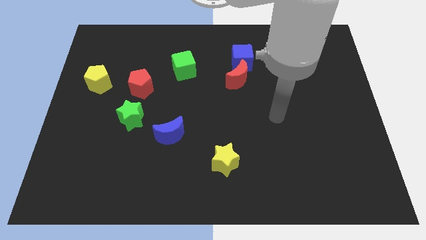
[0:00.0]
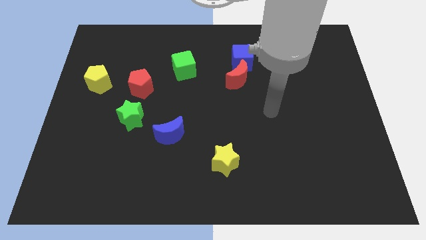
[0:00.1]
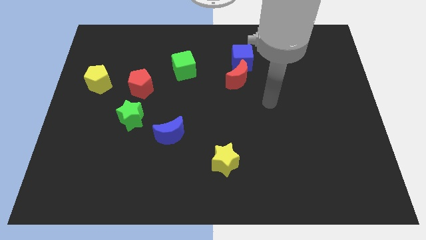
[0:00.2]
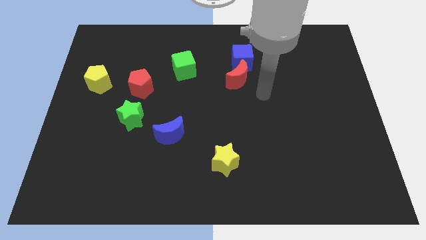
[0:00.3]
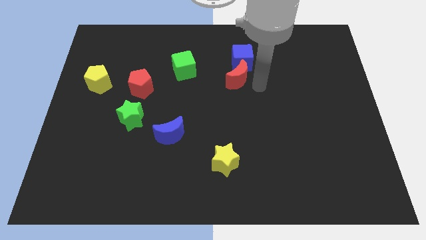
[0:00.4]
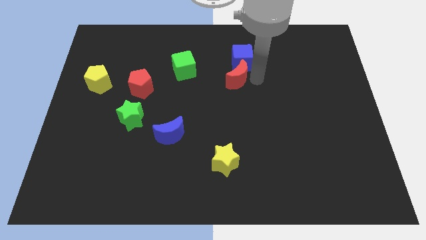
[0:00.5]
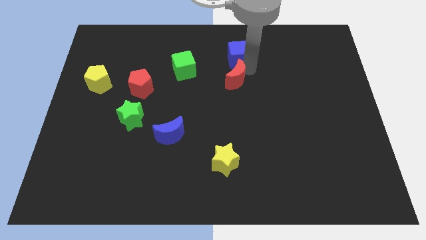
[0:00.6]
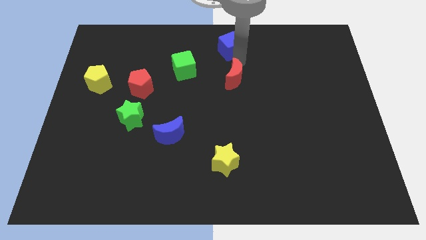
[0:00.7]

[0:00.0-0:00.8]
pull the red moon apart from the blue cube

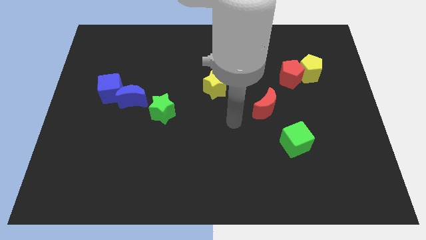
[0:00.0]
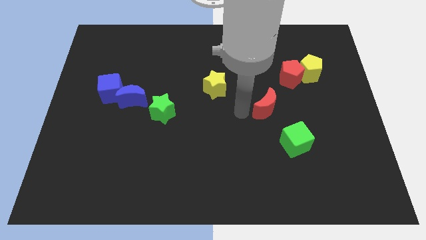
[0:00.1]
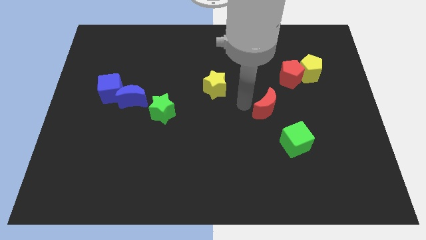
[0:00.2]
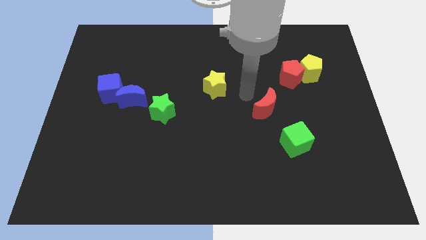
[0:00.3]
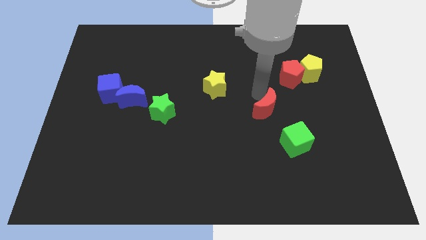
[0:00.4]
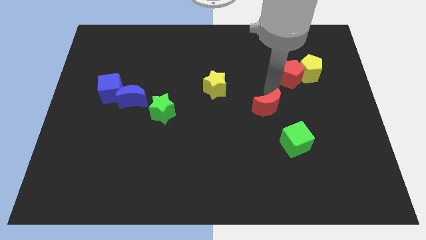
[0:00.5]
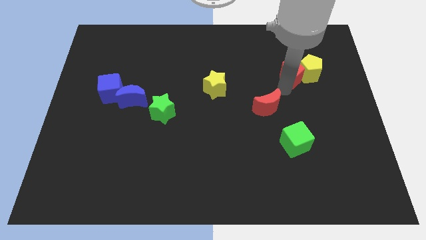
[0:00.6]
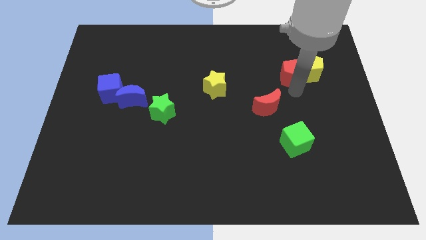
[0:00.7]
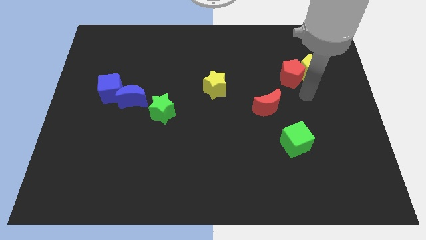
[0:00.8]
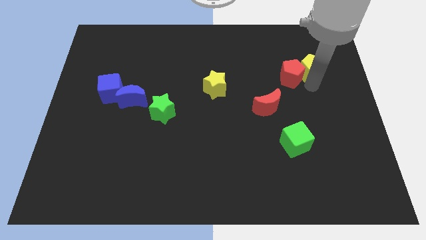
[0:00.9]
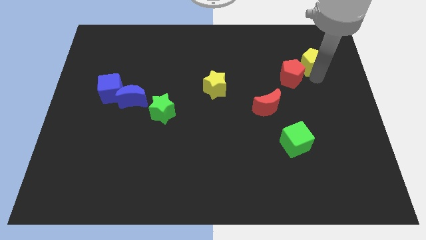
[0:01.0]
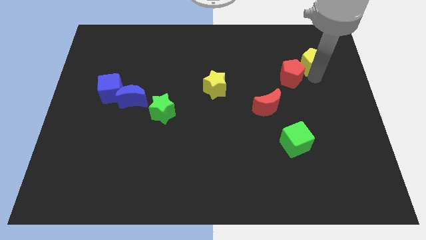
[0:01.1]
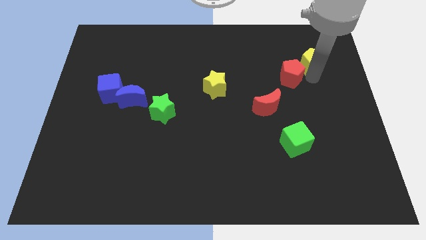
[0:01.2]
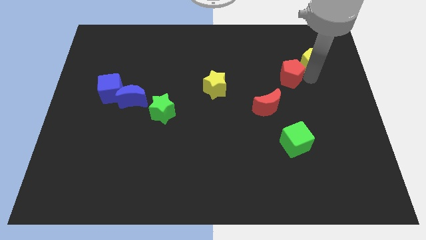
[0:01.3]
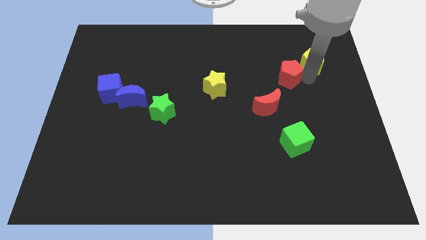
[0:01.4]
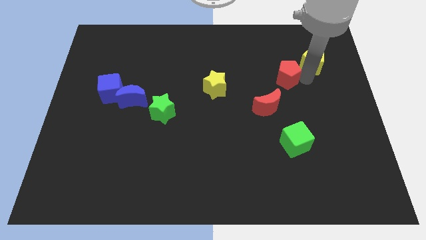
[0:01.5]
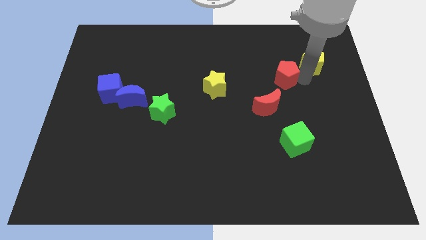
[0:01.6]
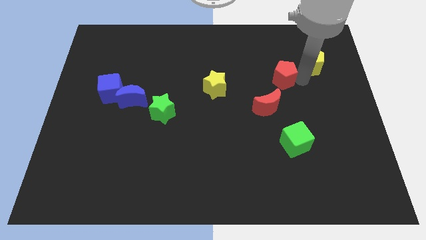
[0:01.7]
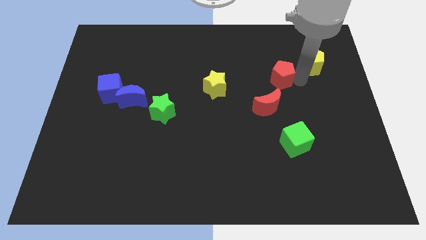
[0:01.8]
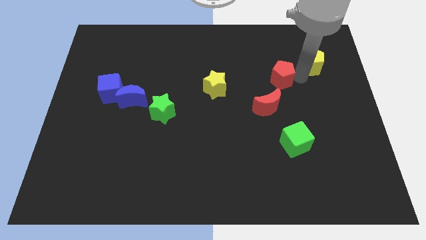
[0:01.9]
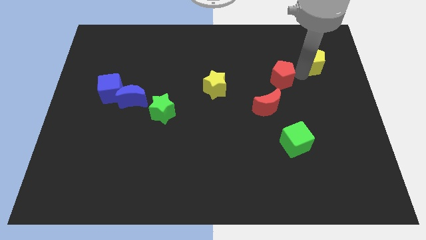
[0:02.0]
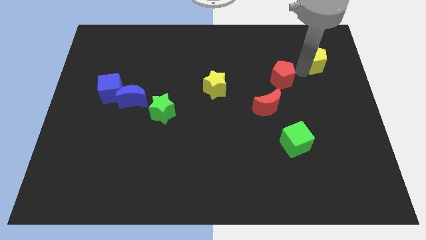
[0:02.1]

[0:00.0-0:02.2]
pull the red pentagon apart from the yellow pentagon

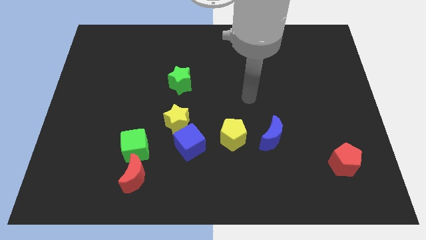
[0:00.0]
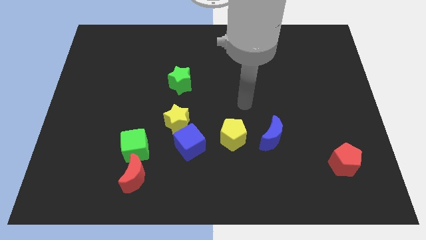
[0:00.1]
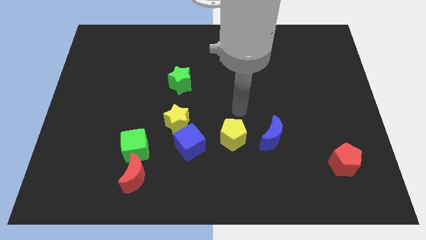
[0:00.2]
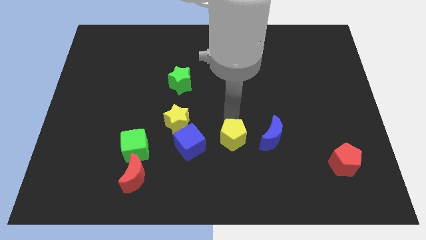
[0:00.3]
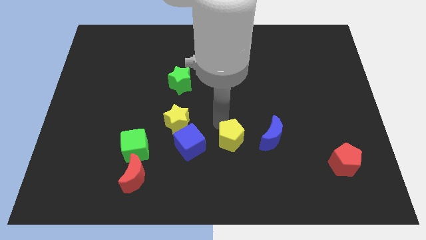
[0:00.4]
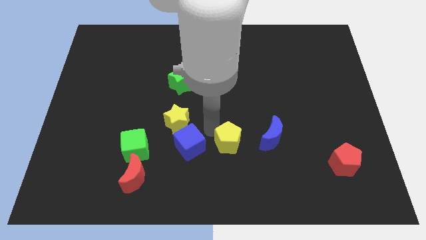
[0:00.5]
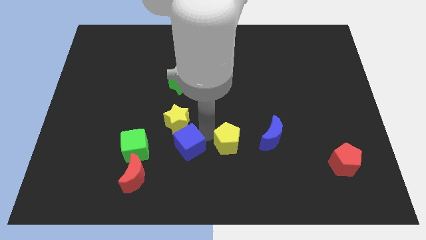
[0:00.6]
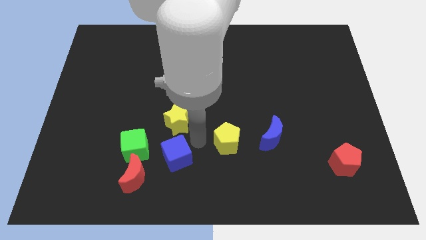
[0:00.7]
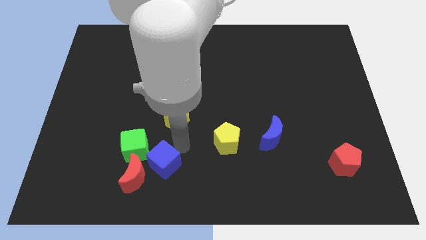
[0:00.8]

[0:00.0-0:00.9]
separate the yellow star from the blue cube

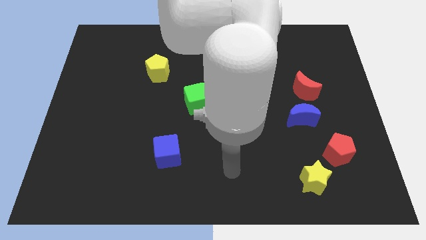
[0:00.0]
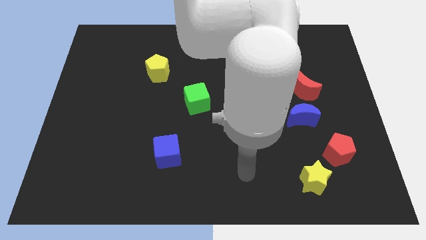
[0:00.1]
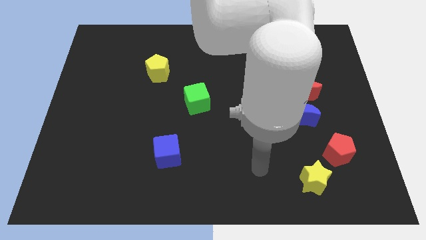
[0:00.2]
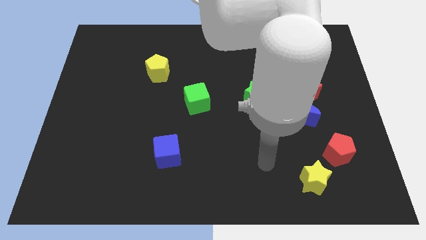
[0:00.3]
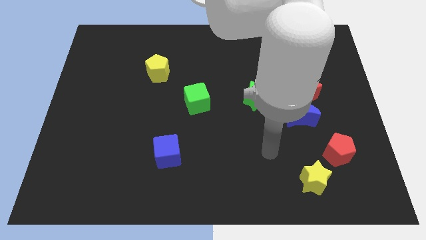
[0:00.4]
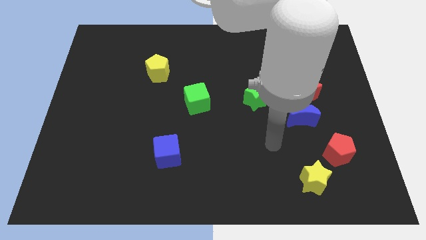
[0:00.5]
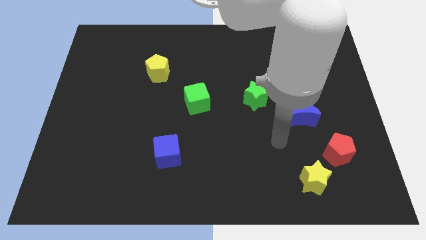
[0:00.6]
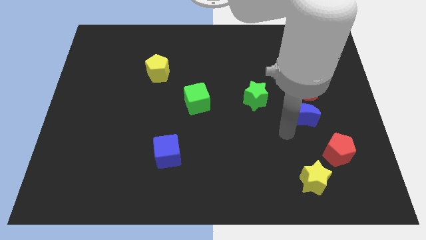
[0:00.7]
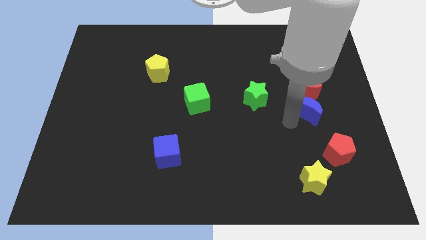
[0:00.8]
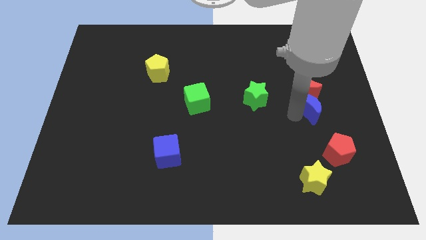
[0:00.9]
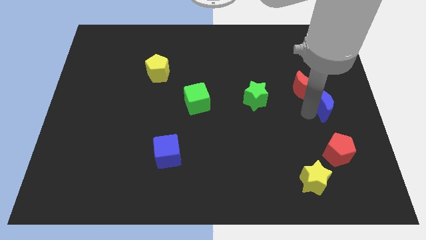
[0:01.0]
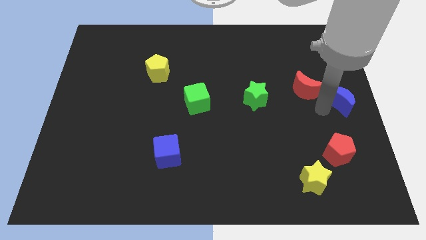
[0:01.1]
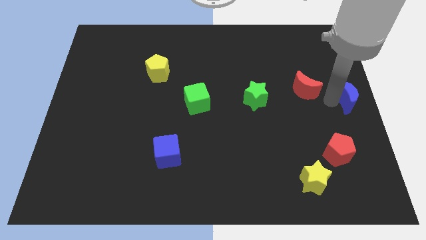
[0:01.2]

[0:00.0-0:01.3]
pull the red moon apart from the blue moon

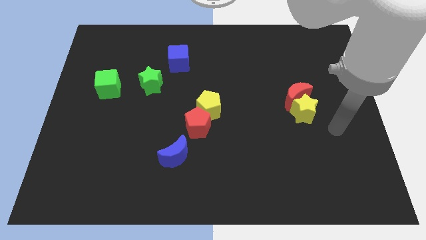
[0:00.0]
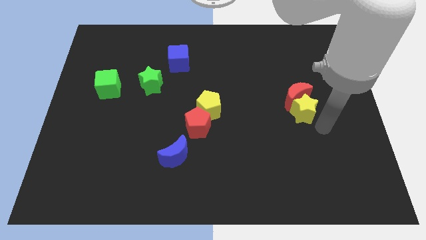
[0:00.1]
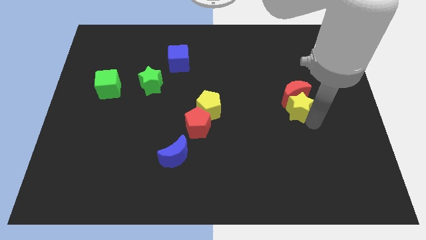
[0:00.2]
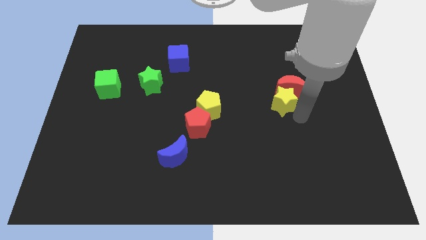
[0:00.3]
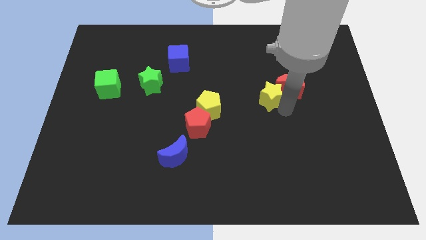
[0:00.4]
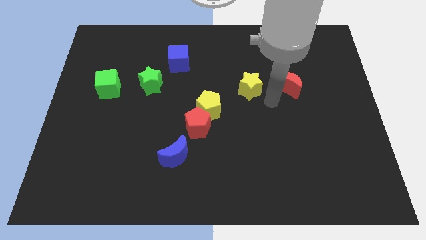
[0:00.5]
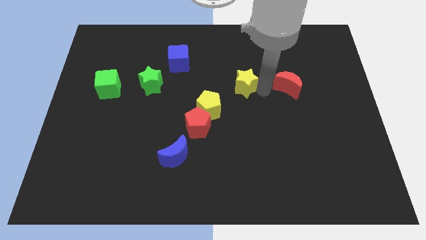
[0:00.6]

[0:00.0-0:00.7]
separate the red moon from the yellow star

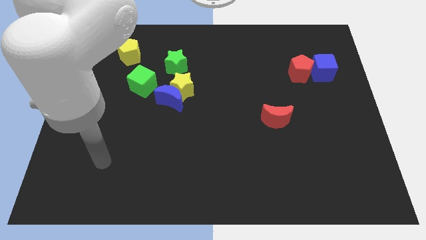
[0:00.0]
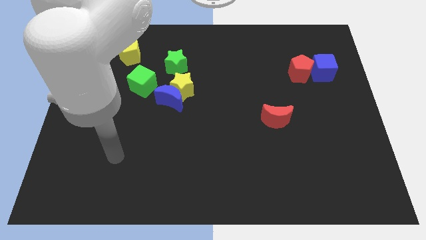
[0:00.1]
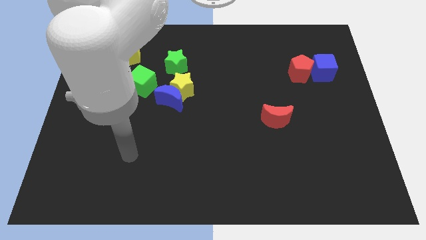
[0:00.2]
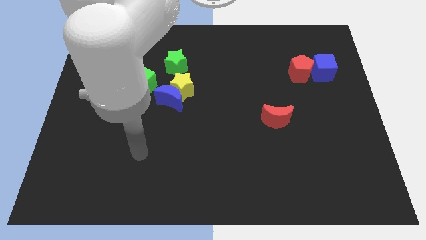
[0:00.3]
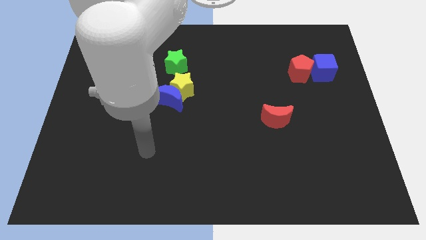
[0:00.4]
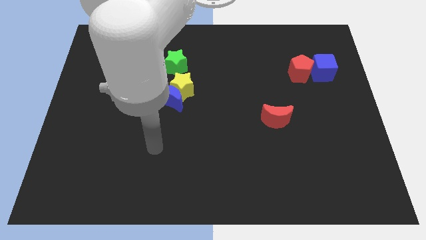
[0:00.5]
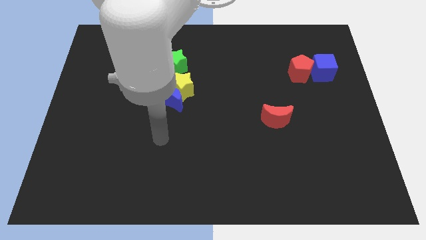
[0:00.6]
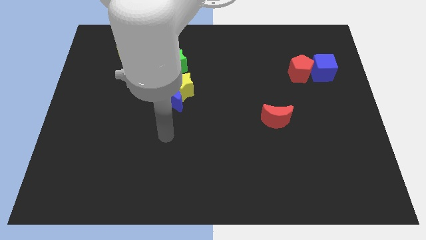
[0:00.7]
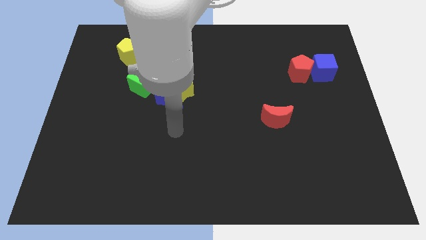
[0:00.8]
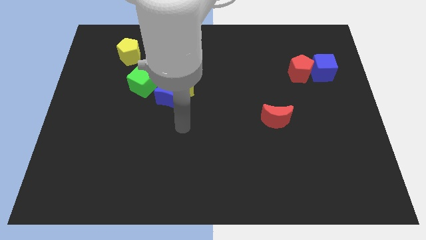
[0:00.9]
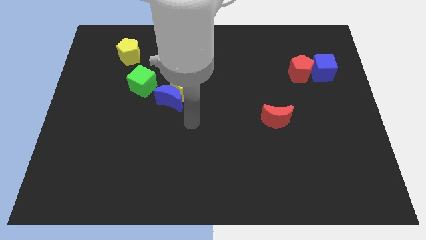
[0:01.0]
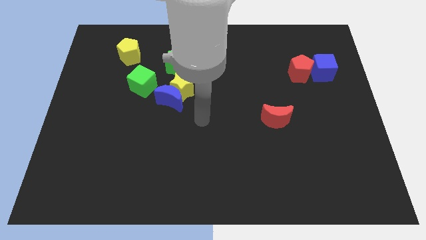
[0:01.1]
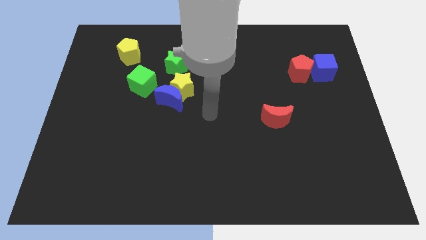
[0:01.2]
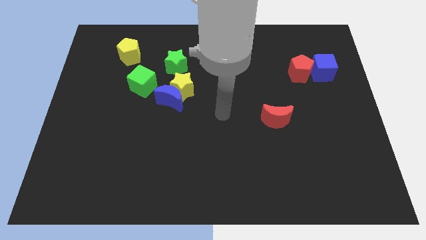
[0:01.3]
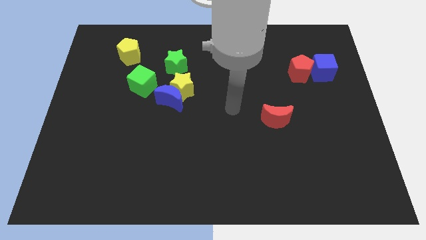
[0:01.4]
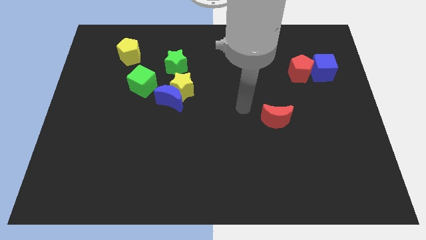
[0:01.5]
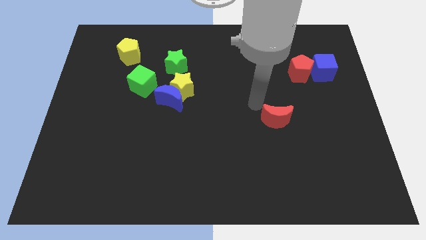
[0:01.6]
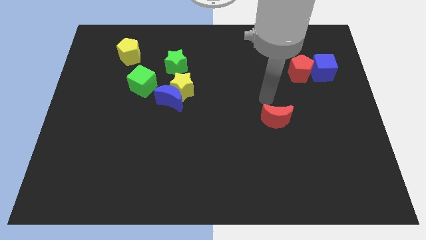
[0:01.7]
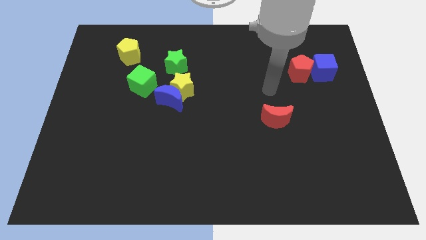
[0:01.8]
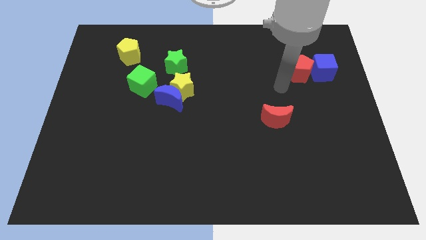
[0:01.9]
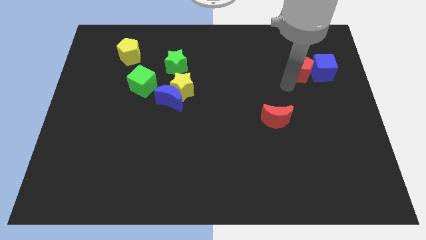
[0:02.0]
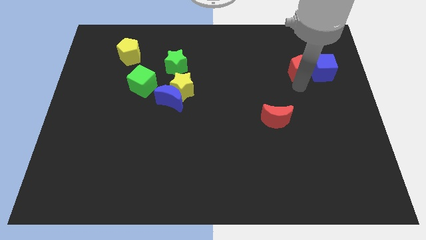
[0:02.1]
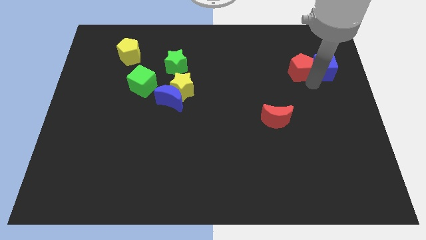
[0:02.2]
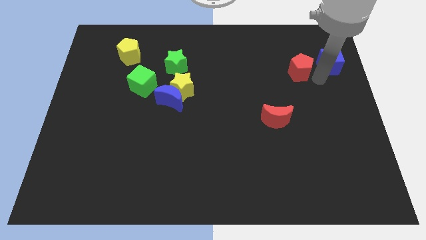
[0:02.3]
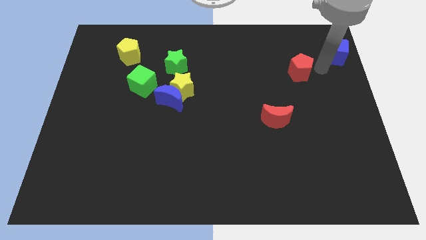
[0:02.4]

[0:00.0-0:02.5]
separate the red pentagon from the blue cube

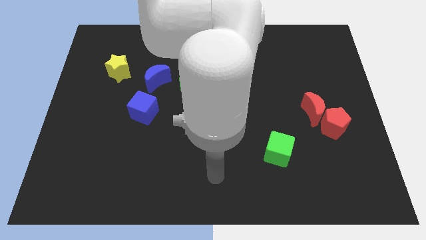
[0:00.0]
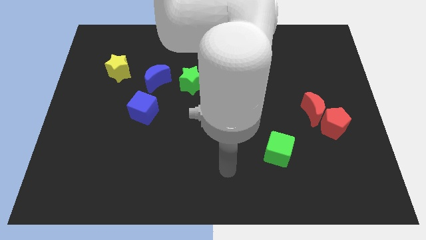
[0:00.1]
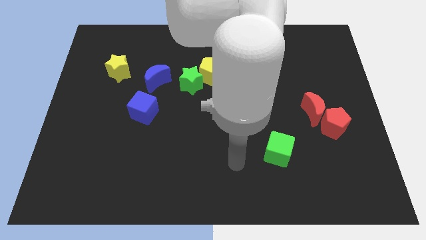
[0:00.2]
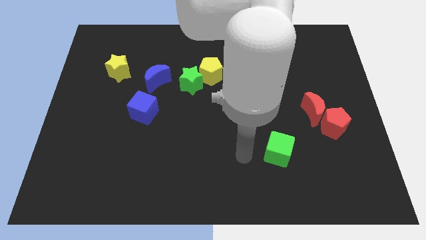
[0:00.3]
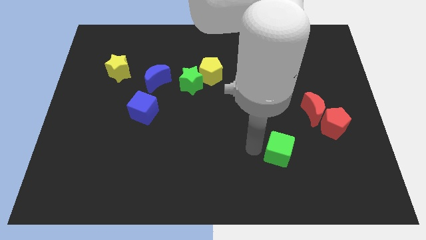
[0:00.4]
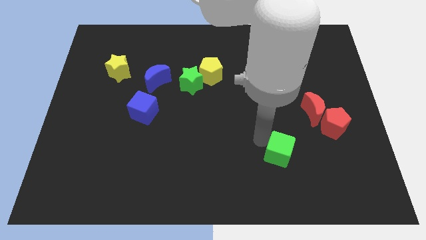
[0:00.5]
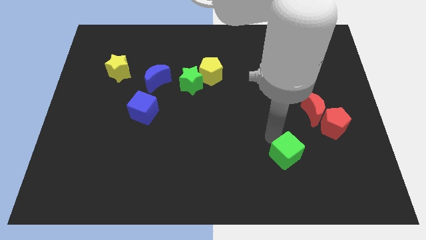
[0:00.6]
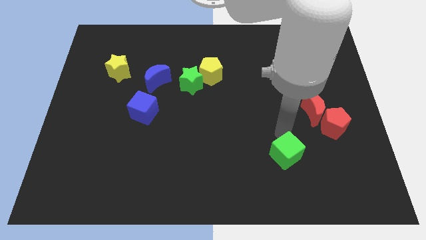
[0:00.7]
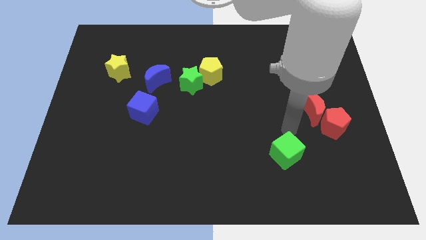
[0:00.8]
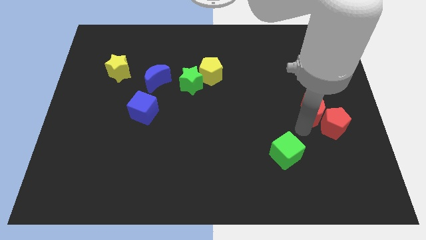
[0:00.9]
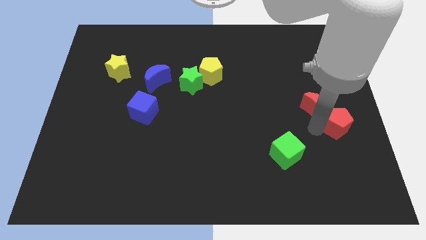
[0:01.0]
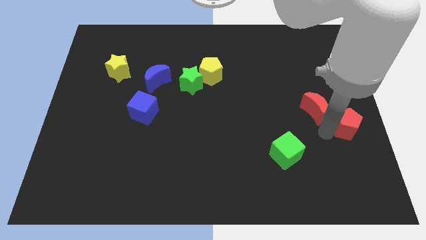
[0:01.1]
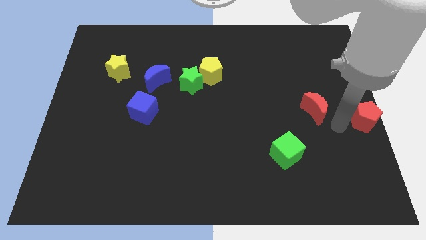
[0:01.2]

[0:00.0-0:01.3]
move the red moon away from the red pentagon
